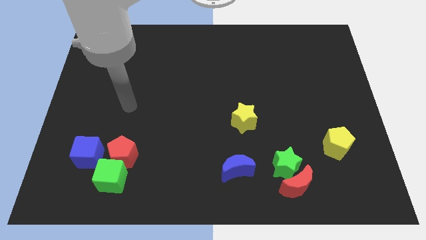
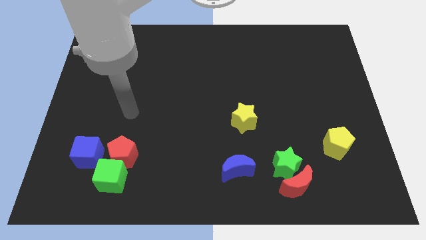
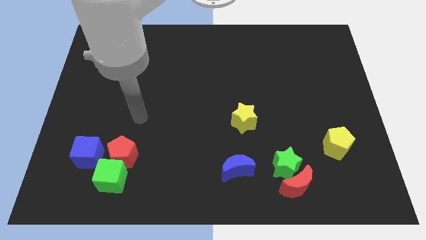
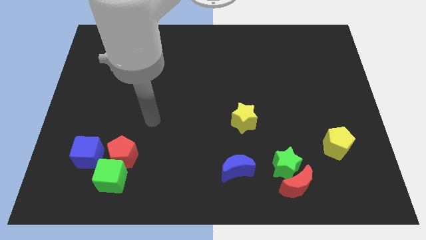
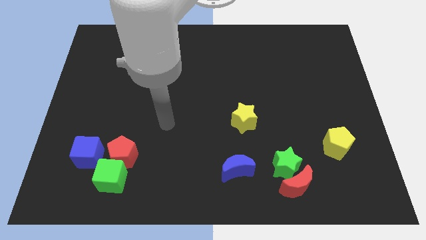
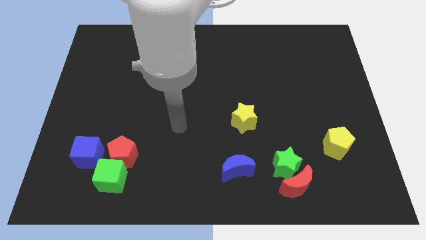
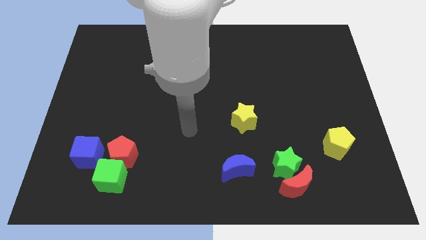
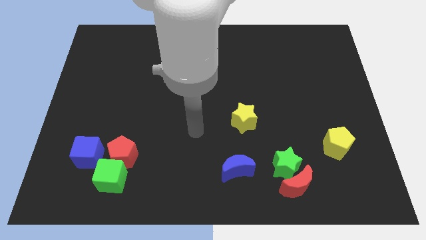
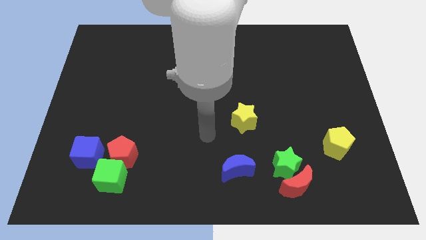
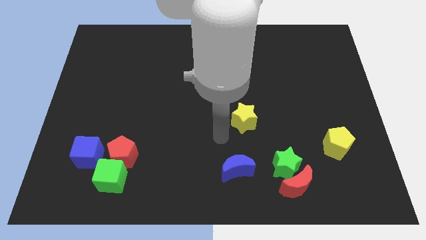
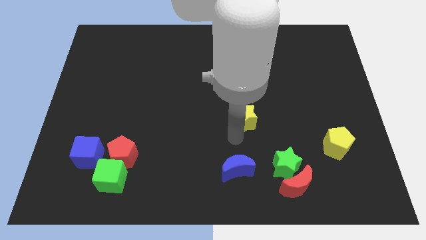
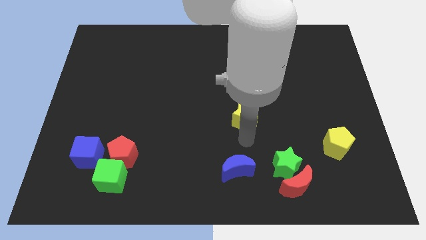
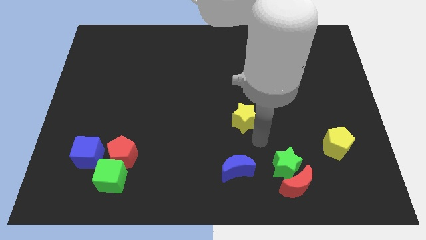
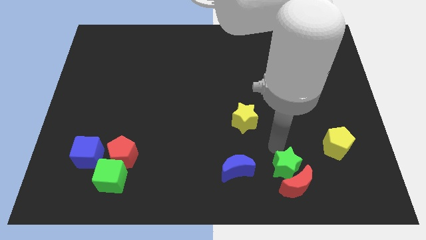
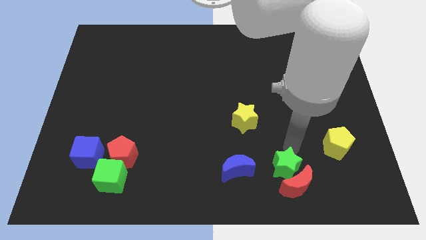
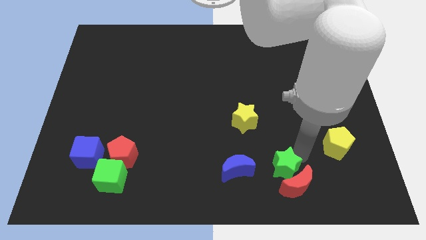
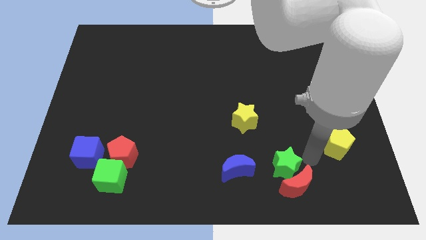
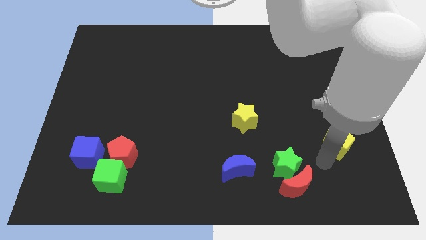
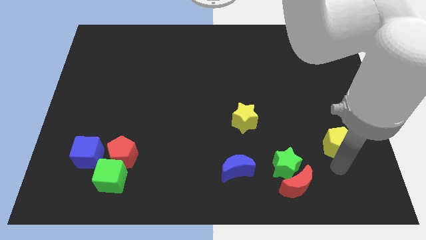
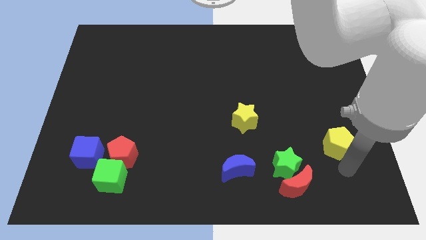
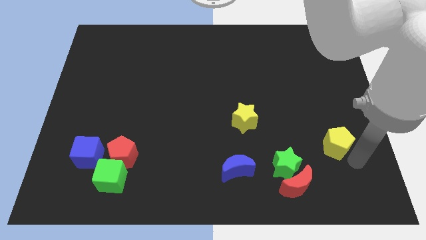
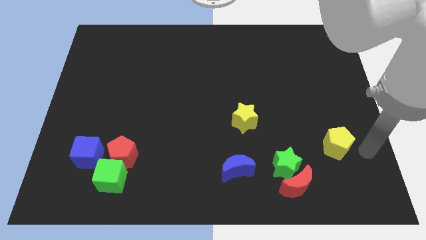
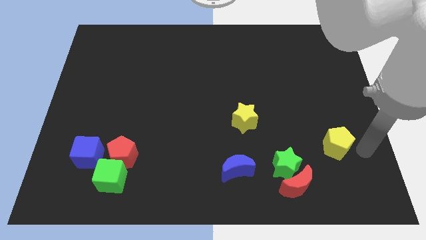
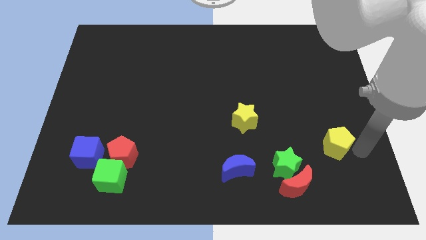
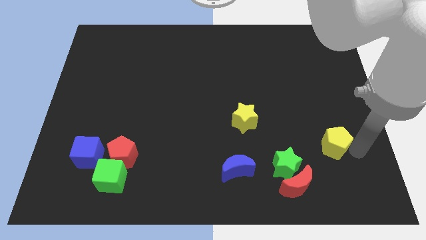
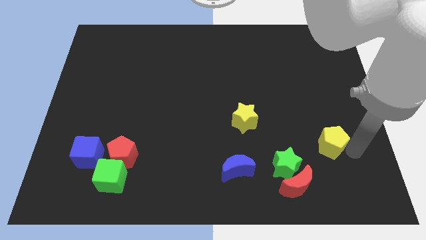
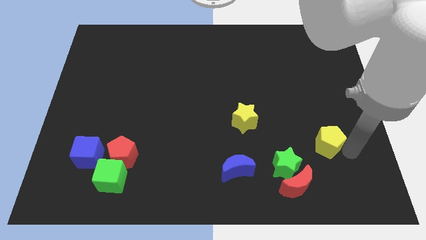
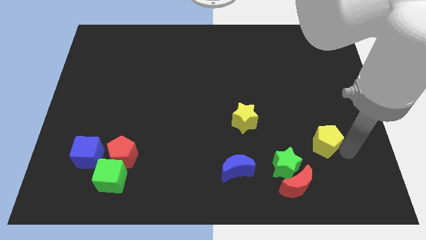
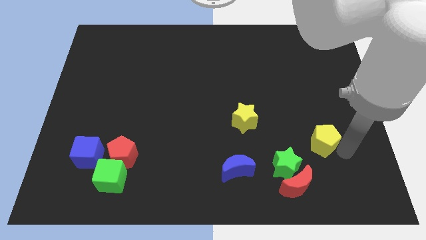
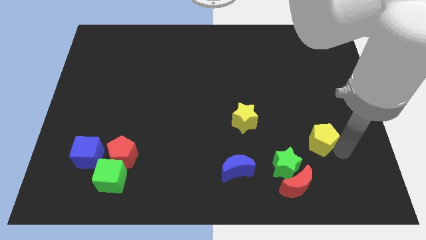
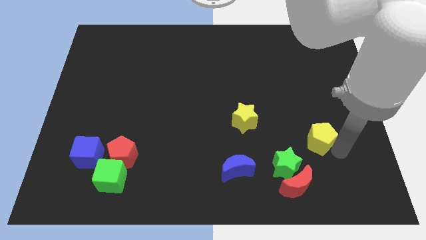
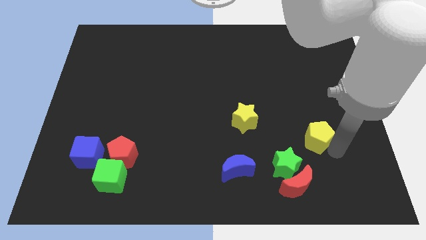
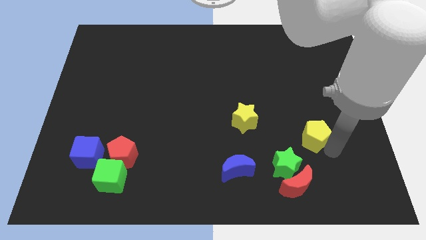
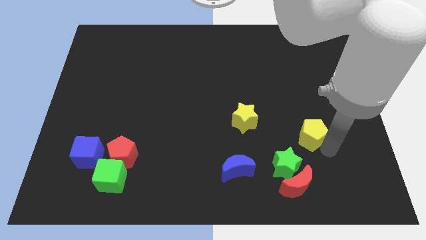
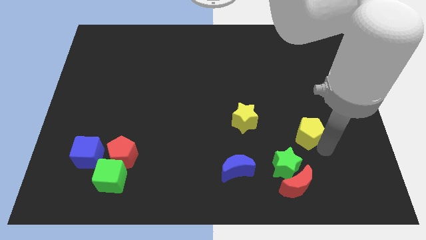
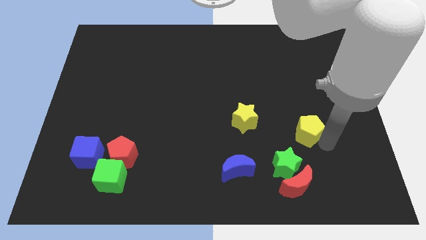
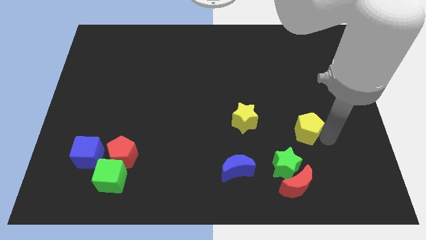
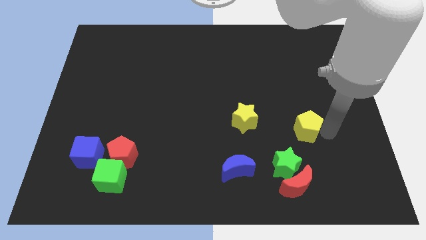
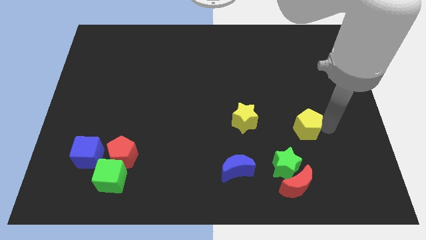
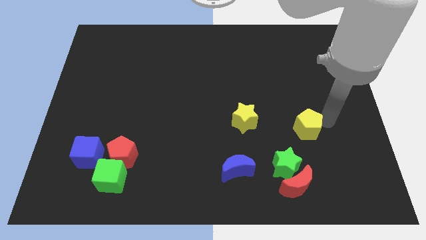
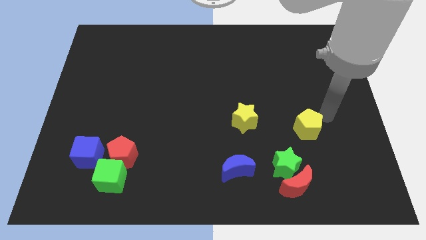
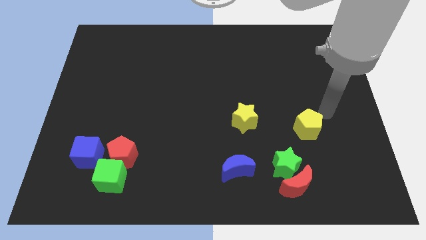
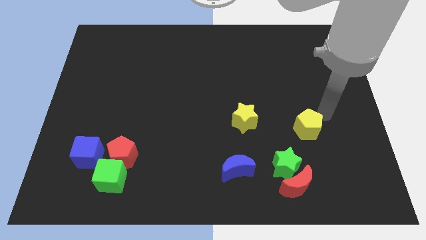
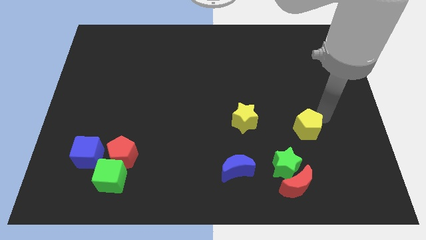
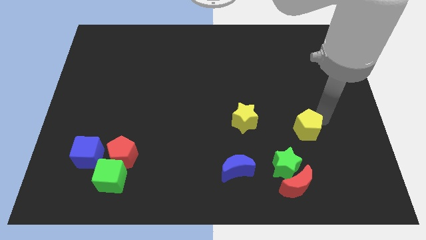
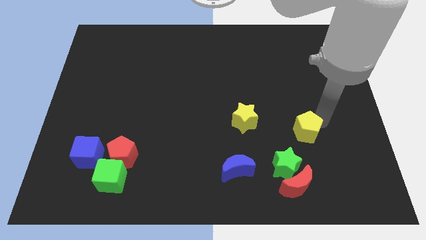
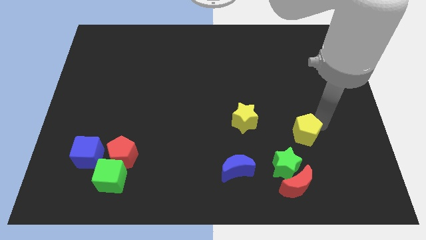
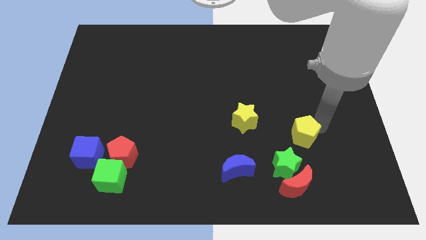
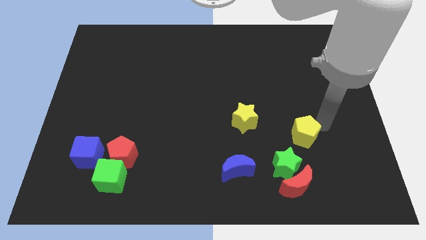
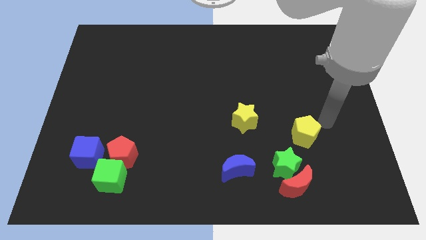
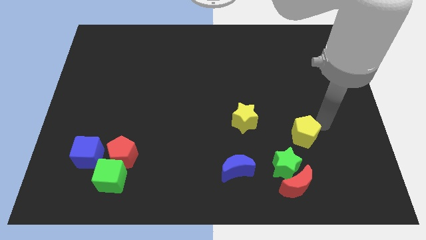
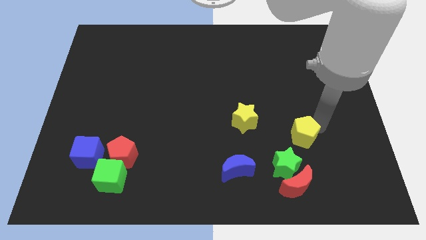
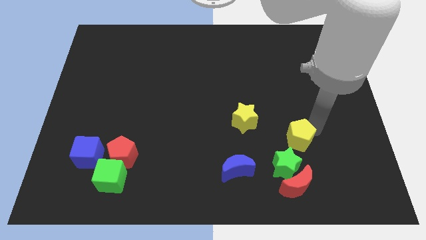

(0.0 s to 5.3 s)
move the yellow pentagon left somewhat

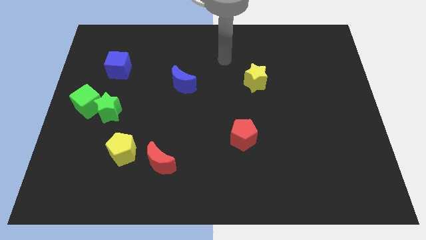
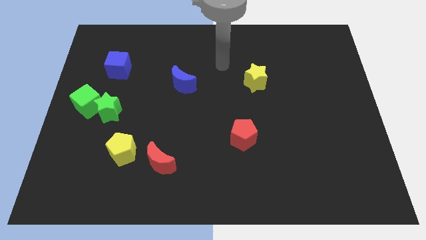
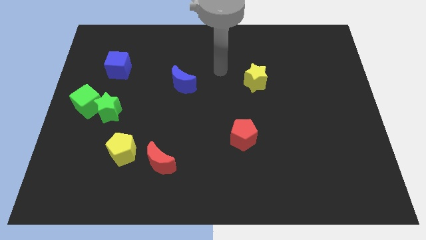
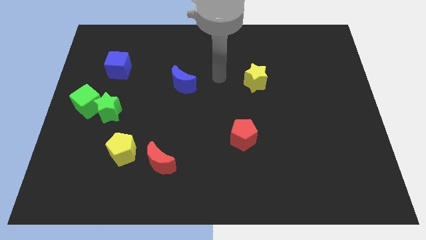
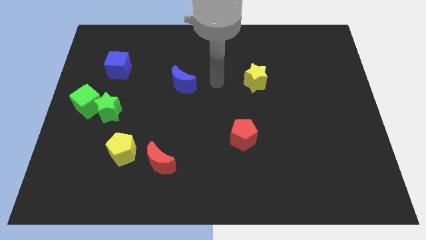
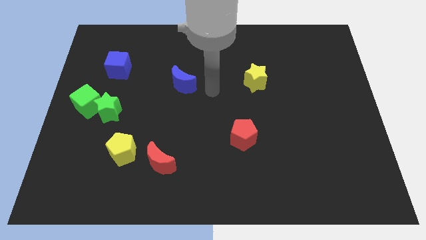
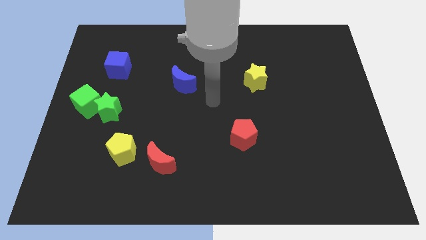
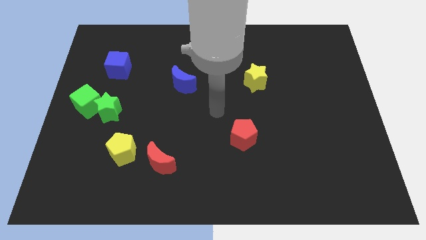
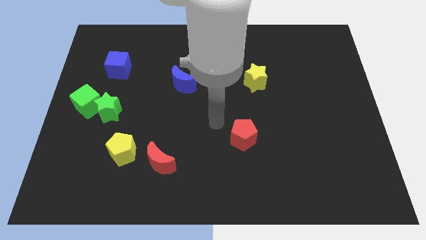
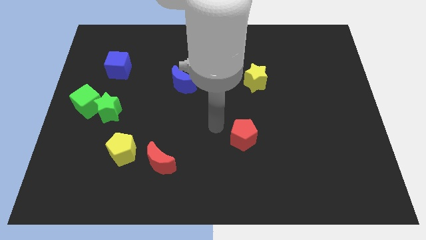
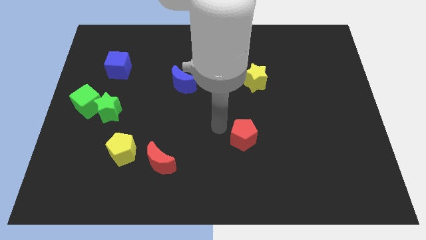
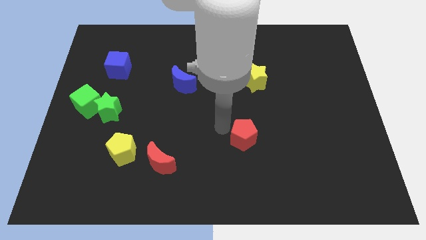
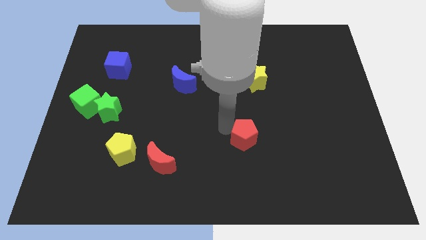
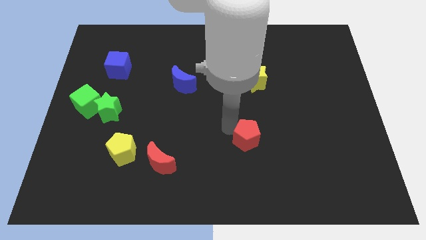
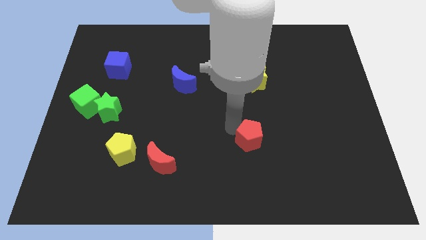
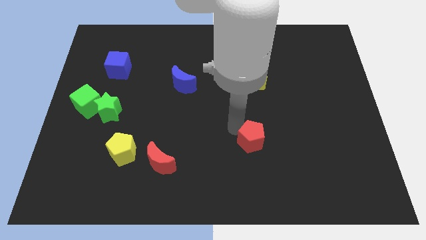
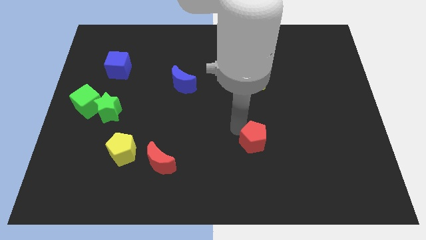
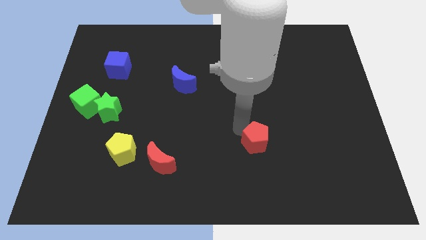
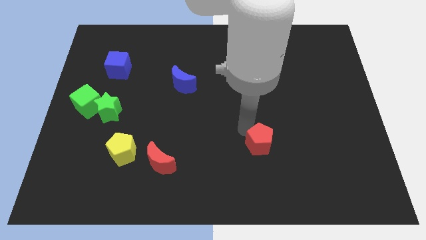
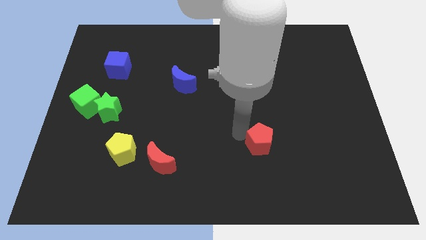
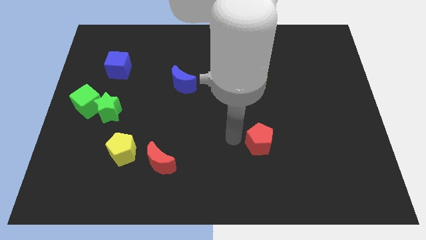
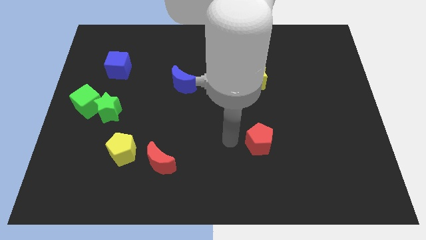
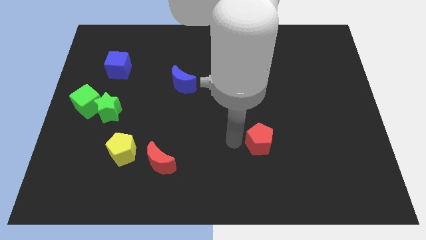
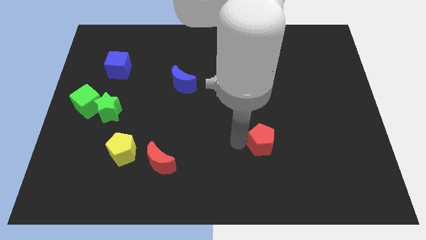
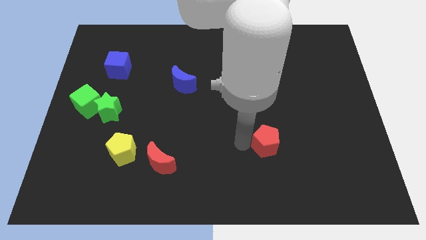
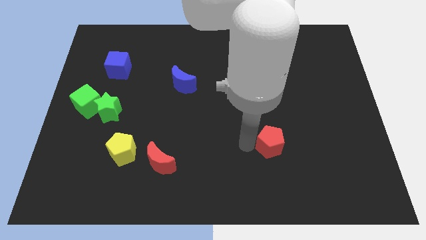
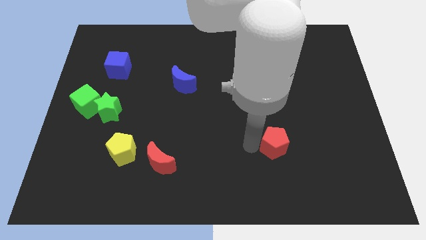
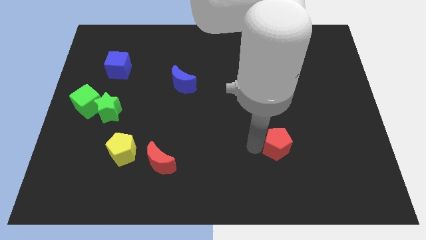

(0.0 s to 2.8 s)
slightly push the red pentagon to the right
